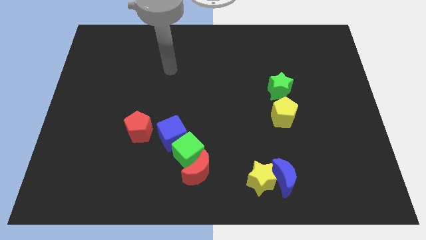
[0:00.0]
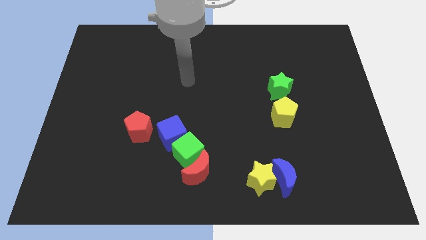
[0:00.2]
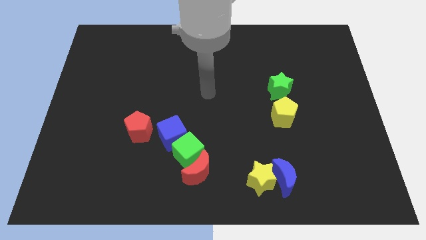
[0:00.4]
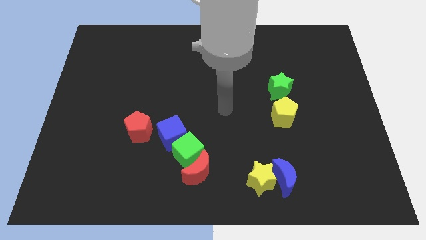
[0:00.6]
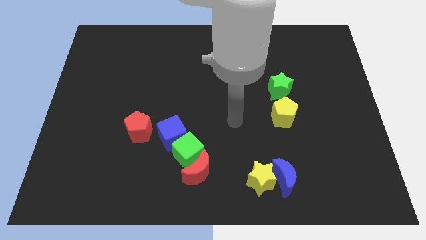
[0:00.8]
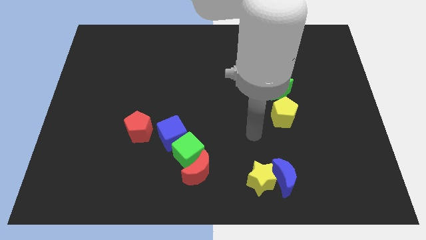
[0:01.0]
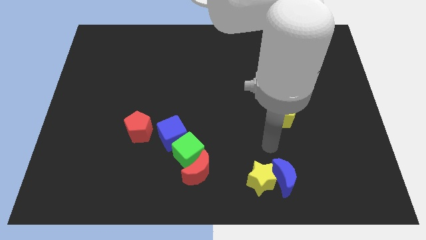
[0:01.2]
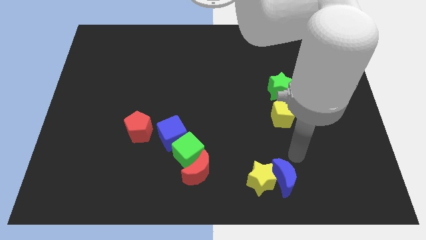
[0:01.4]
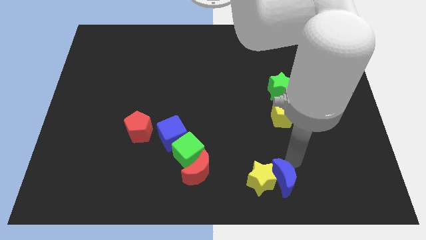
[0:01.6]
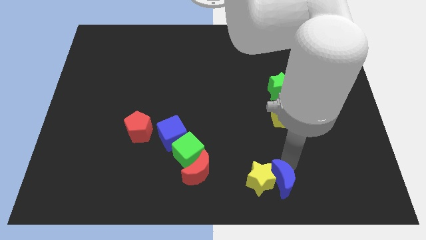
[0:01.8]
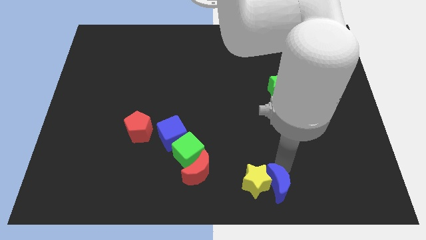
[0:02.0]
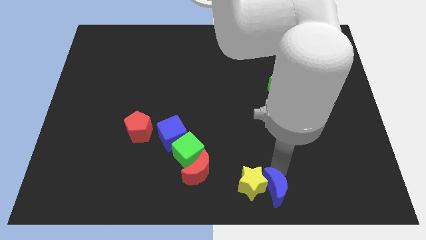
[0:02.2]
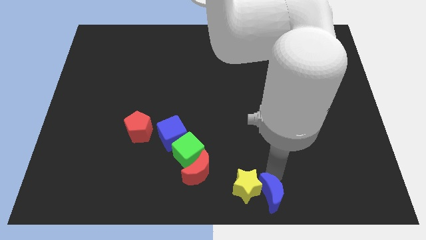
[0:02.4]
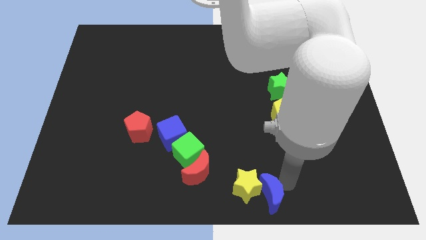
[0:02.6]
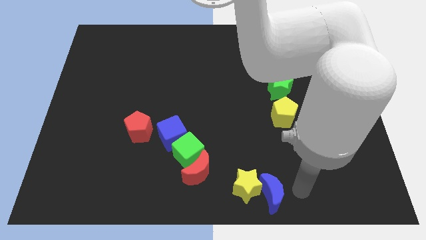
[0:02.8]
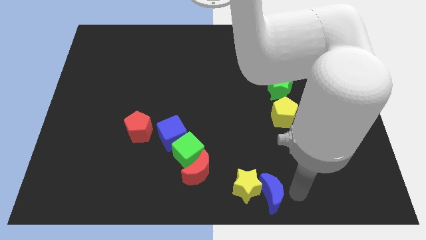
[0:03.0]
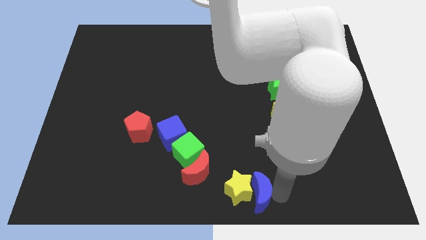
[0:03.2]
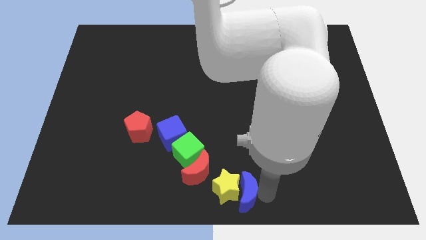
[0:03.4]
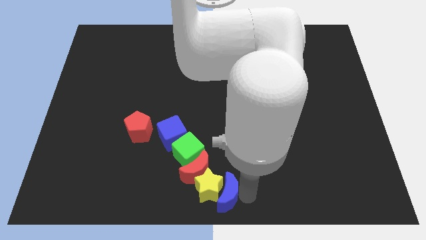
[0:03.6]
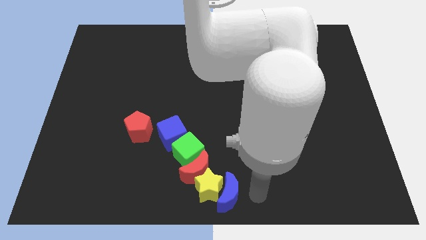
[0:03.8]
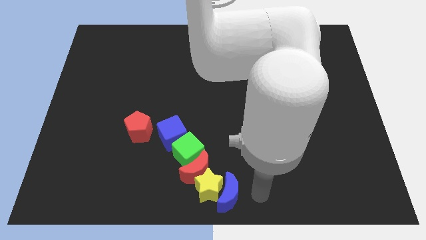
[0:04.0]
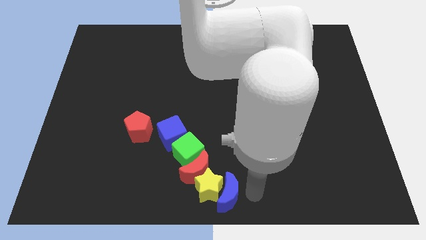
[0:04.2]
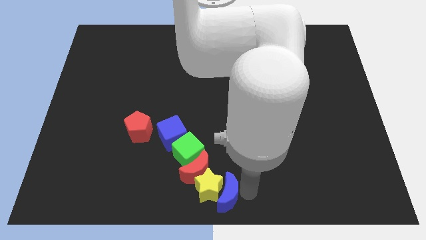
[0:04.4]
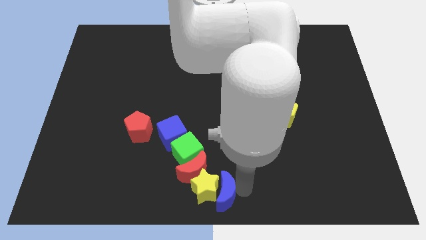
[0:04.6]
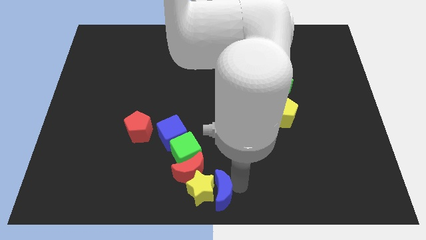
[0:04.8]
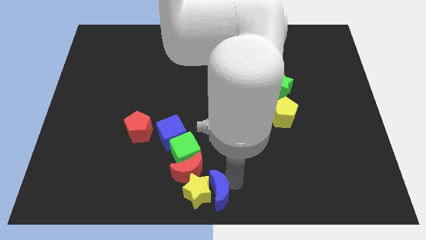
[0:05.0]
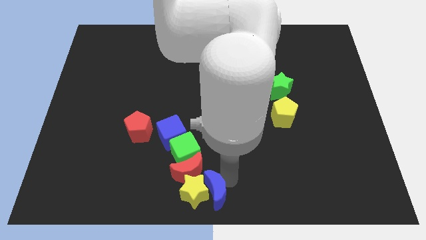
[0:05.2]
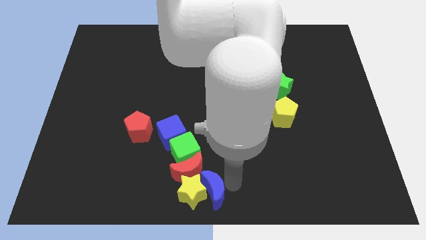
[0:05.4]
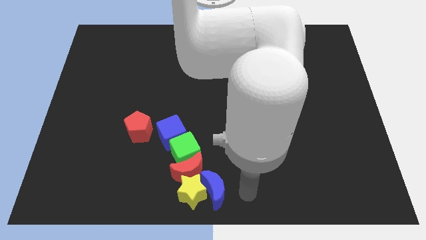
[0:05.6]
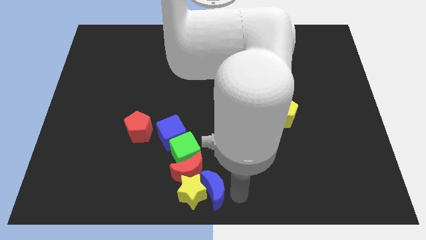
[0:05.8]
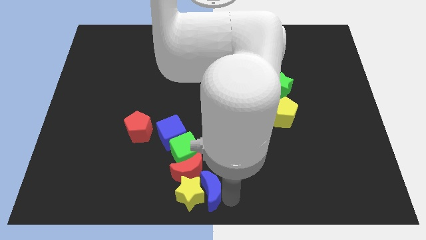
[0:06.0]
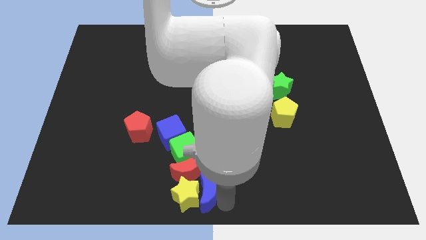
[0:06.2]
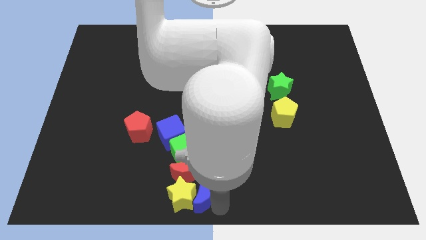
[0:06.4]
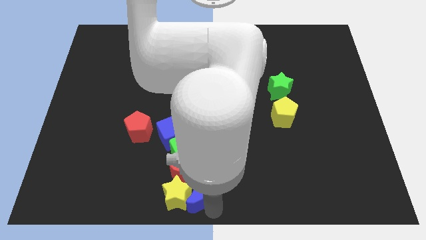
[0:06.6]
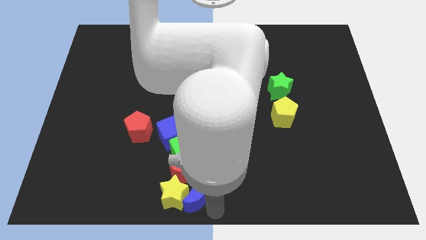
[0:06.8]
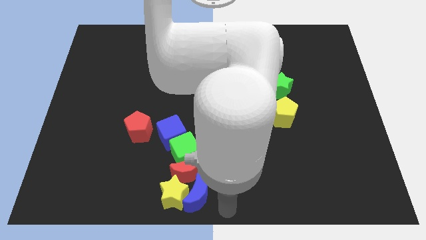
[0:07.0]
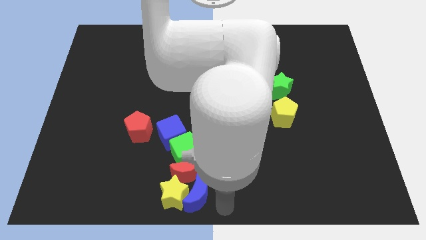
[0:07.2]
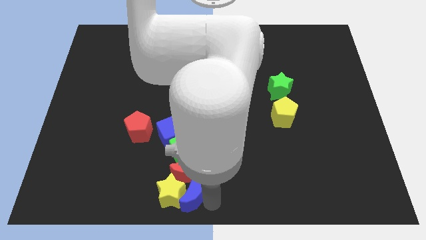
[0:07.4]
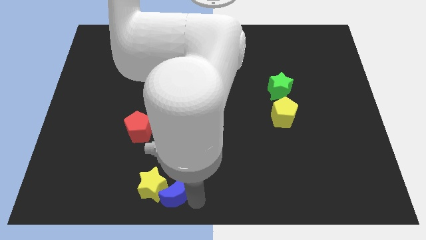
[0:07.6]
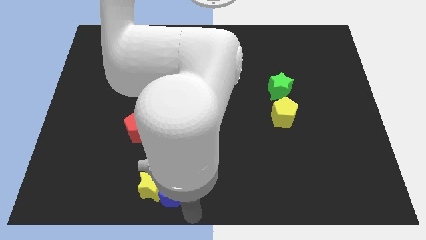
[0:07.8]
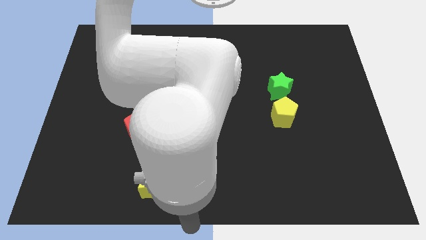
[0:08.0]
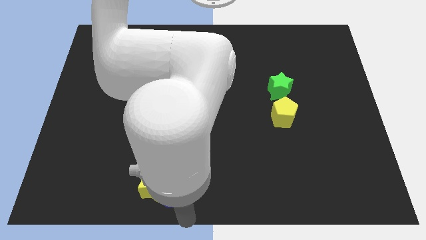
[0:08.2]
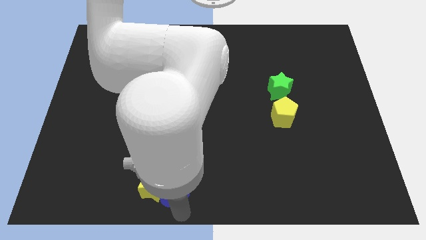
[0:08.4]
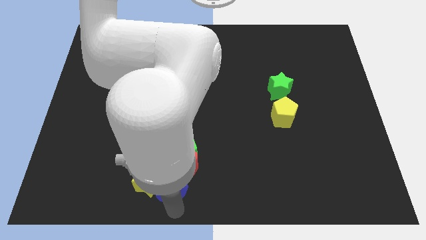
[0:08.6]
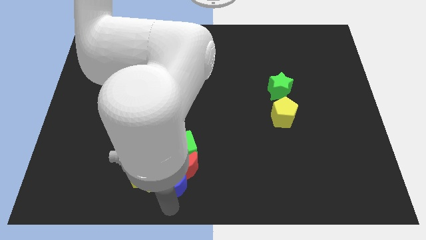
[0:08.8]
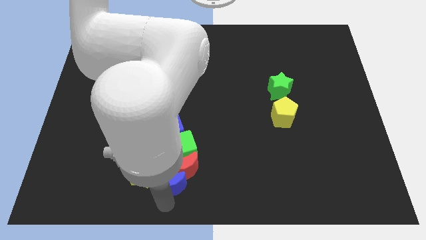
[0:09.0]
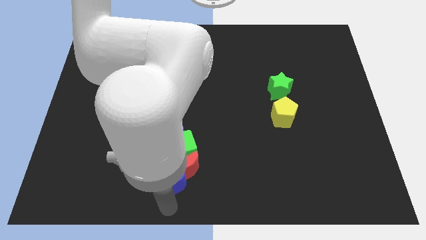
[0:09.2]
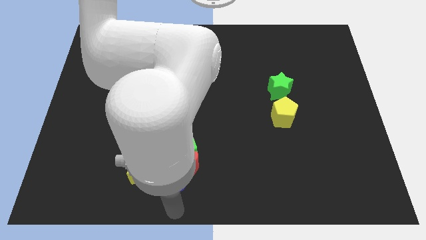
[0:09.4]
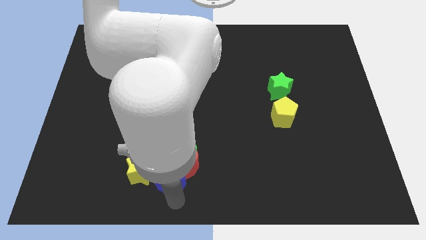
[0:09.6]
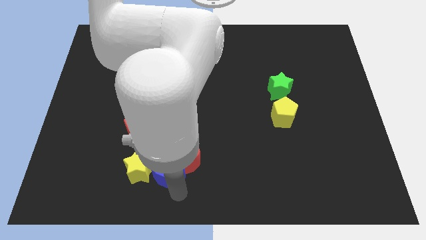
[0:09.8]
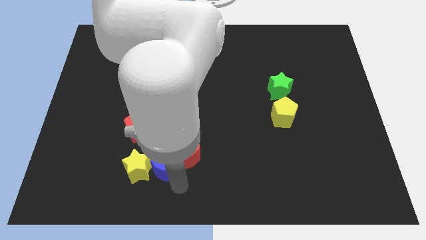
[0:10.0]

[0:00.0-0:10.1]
put the blue moon to the bottom right side of the red pentagon

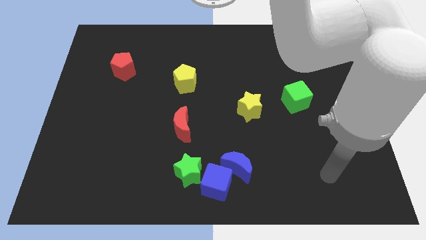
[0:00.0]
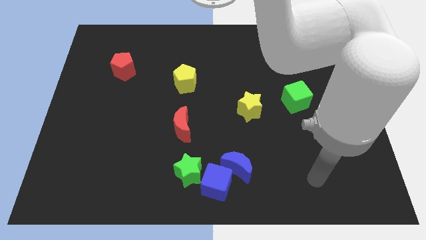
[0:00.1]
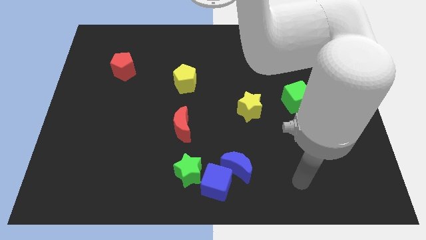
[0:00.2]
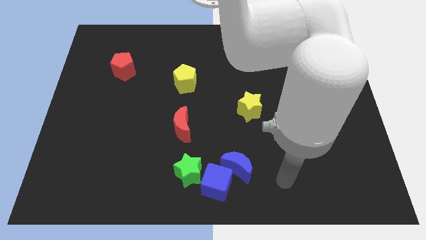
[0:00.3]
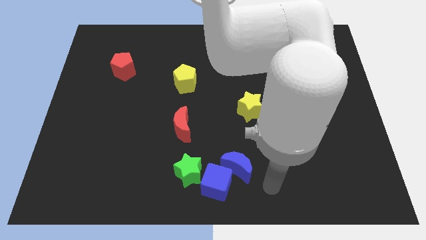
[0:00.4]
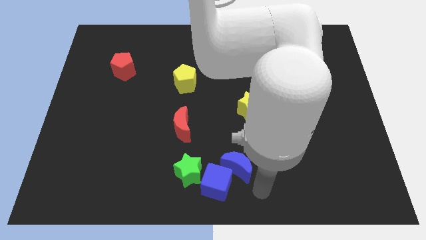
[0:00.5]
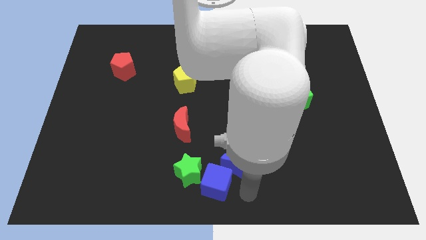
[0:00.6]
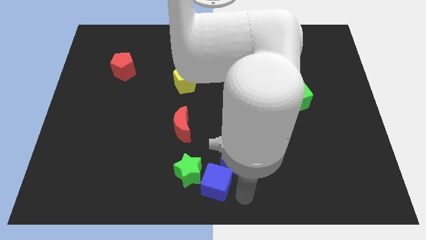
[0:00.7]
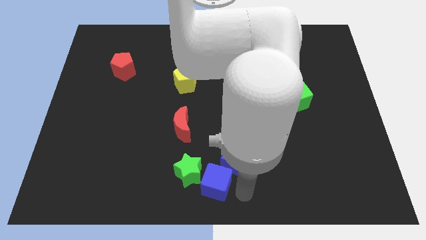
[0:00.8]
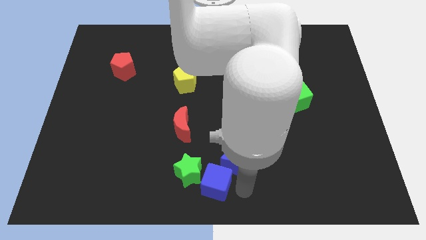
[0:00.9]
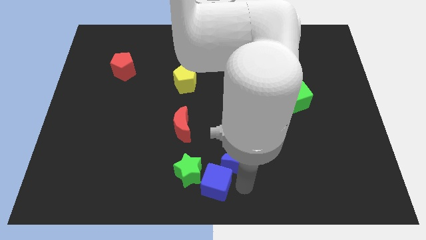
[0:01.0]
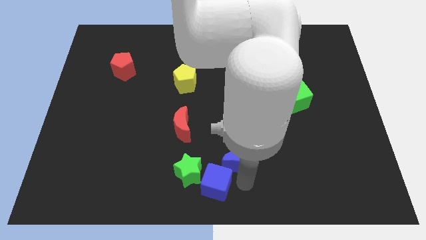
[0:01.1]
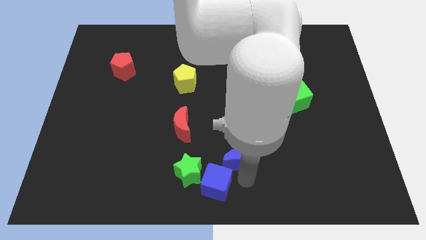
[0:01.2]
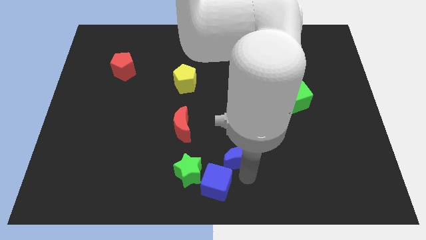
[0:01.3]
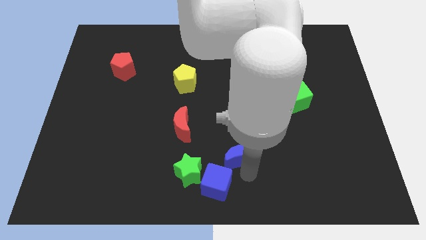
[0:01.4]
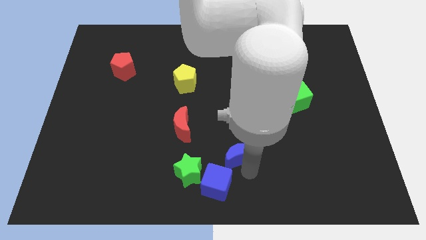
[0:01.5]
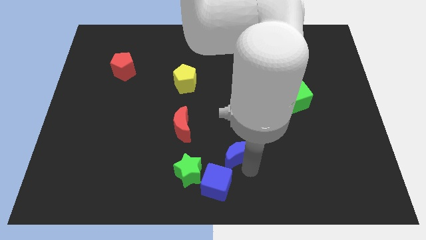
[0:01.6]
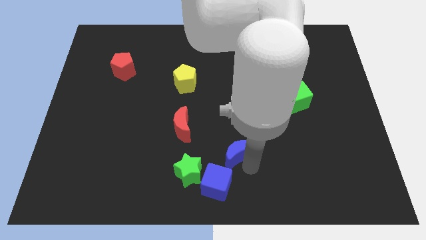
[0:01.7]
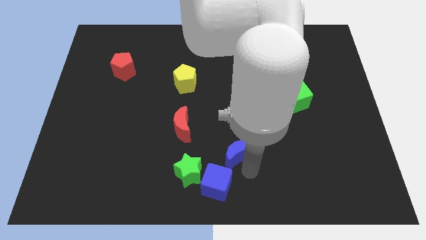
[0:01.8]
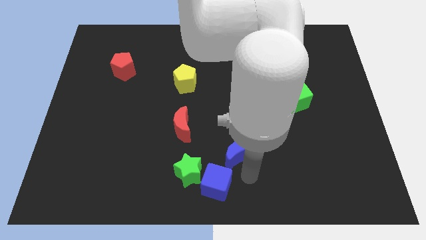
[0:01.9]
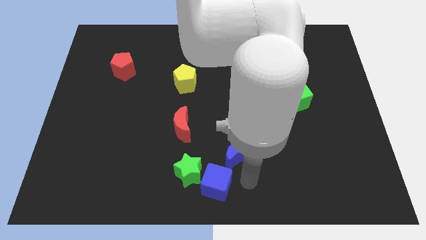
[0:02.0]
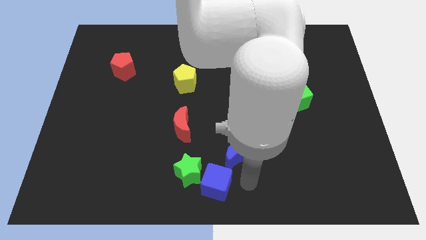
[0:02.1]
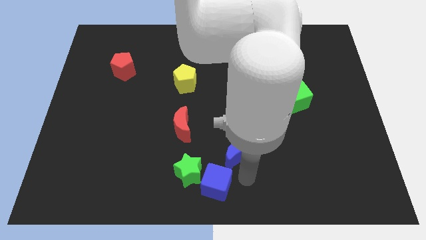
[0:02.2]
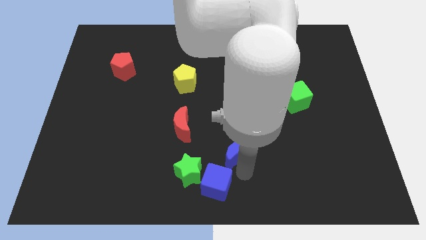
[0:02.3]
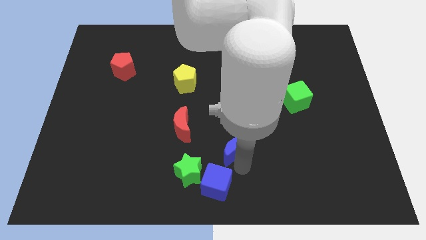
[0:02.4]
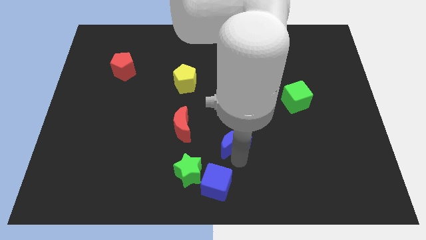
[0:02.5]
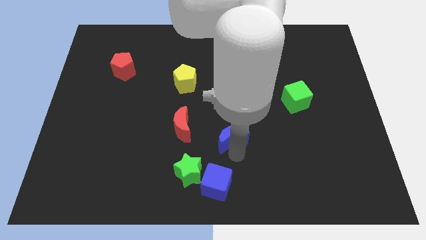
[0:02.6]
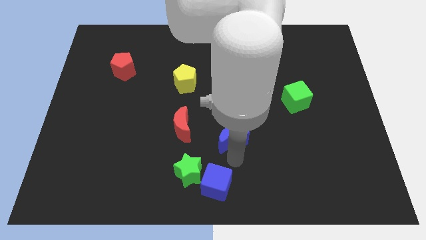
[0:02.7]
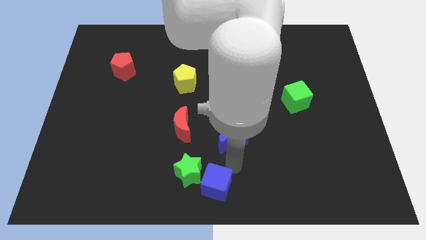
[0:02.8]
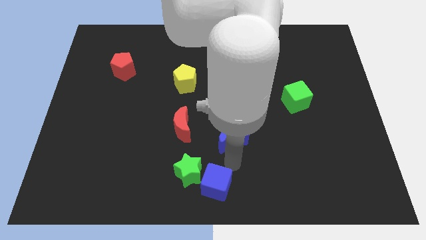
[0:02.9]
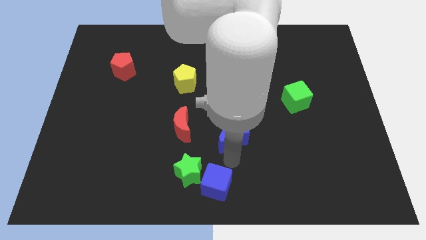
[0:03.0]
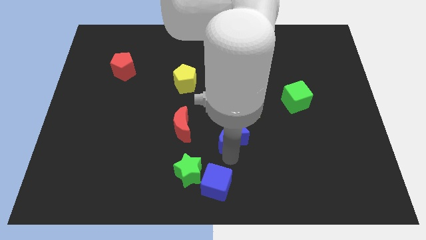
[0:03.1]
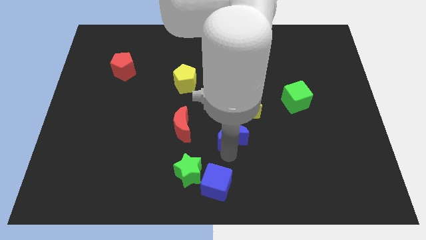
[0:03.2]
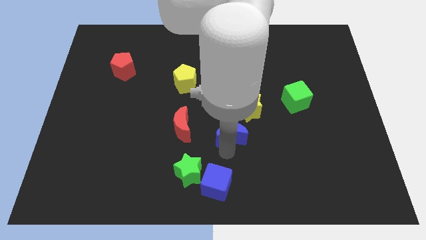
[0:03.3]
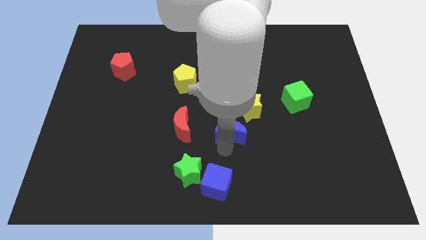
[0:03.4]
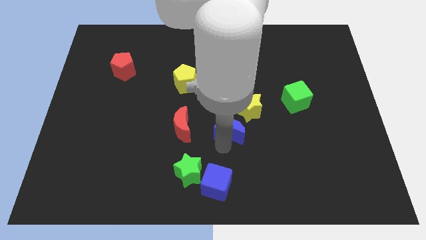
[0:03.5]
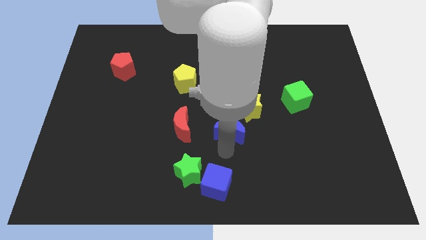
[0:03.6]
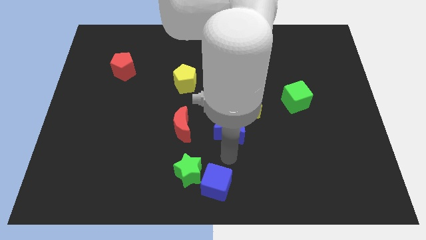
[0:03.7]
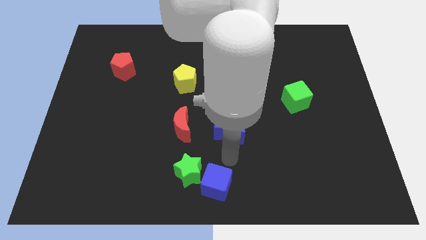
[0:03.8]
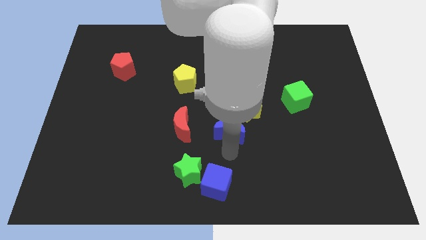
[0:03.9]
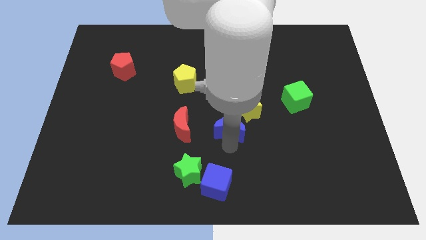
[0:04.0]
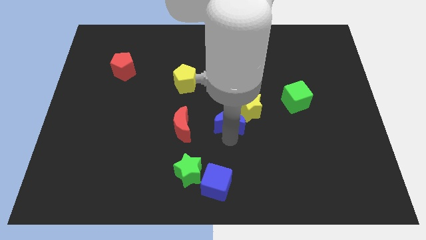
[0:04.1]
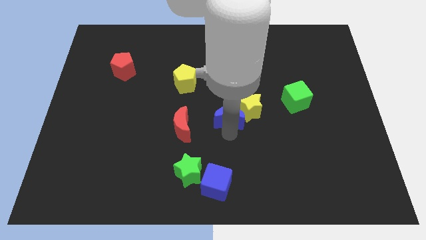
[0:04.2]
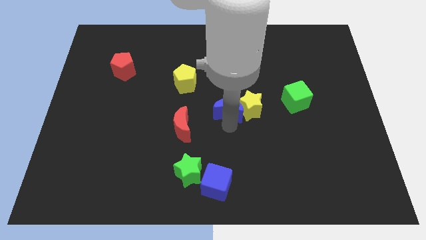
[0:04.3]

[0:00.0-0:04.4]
slide the blue moon to the top left side of the yellow star
